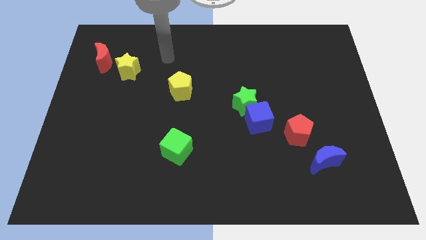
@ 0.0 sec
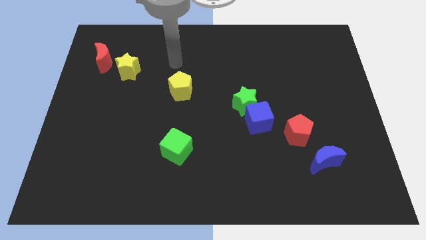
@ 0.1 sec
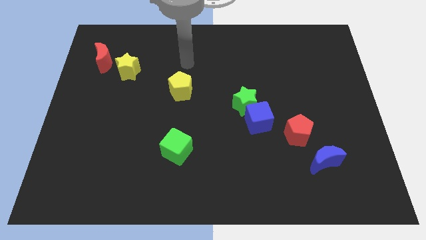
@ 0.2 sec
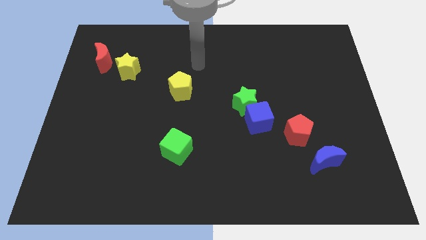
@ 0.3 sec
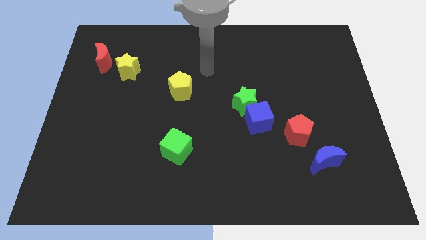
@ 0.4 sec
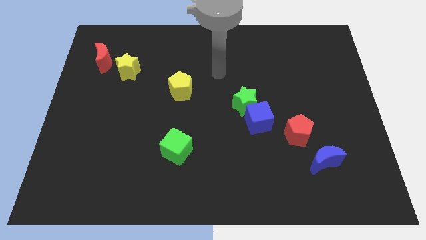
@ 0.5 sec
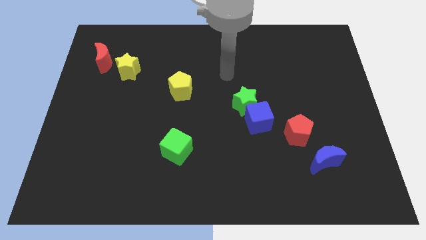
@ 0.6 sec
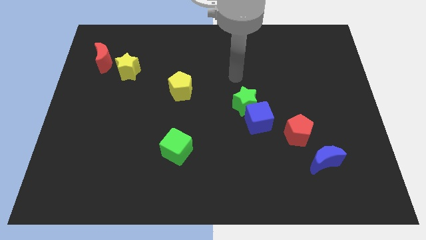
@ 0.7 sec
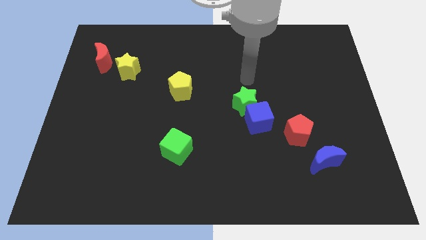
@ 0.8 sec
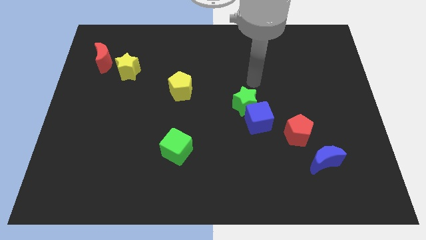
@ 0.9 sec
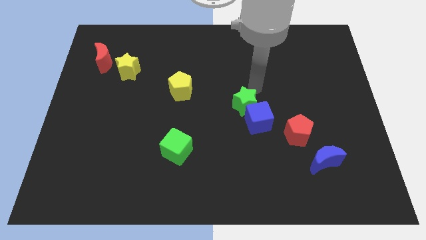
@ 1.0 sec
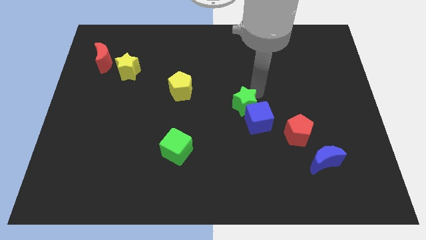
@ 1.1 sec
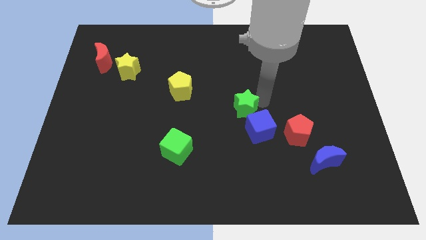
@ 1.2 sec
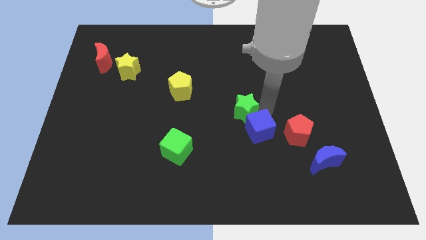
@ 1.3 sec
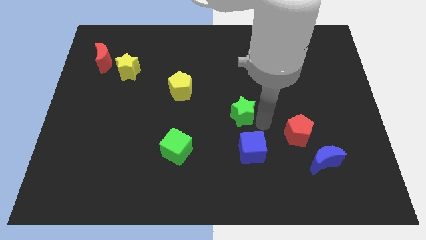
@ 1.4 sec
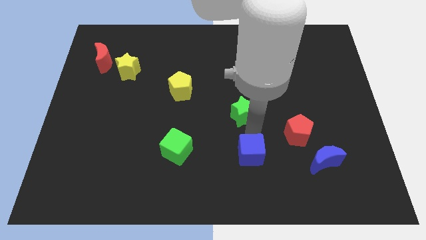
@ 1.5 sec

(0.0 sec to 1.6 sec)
move the green star away from the blue cube

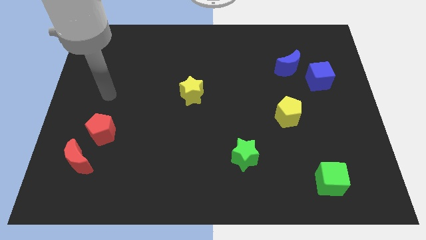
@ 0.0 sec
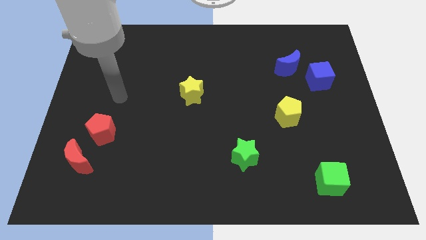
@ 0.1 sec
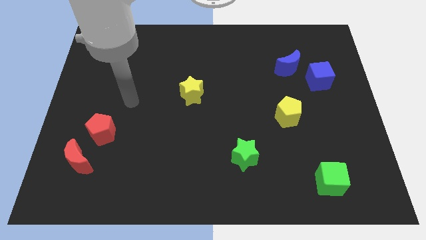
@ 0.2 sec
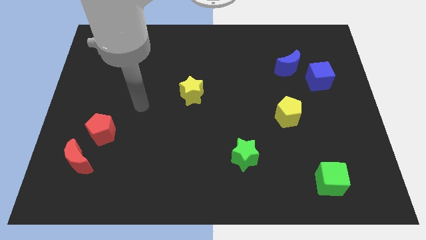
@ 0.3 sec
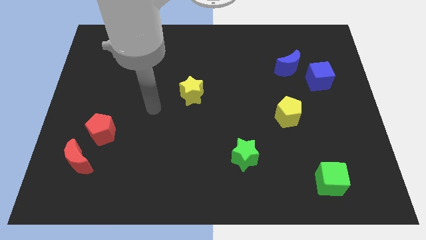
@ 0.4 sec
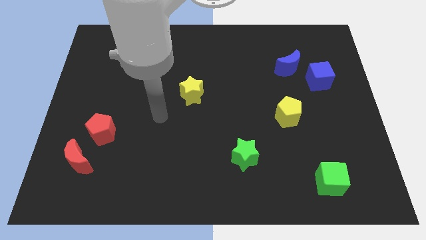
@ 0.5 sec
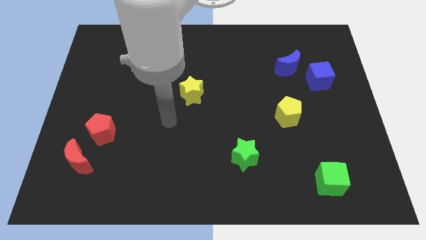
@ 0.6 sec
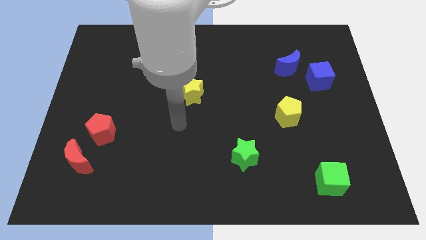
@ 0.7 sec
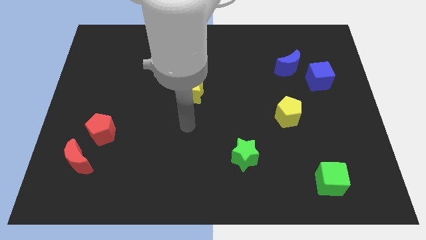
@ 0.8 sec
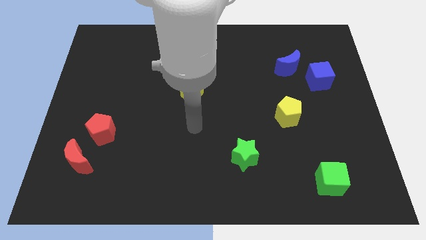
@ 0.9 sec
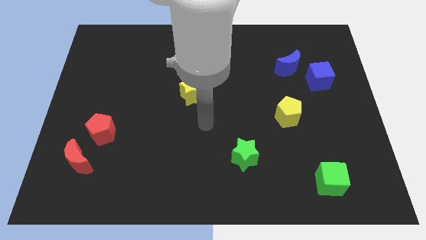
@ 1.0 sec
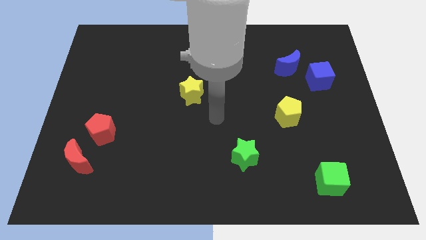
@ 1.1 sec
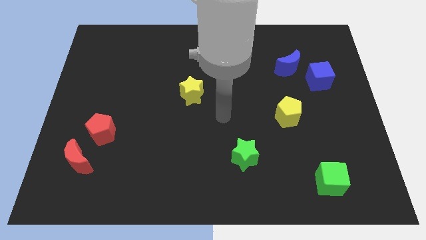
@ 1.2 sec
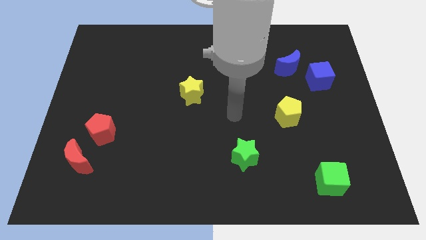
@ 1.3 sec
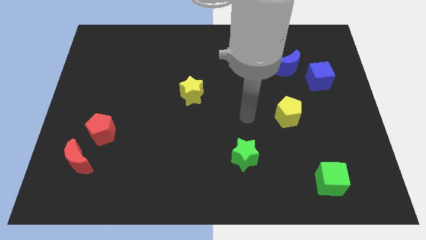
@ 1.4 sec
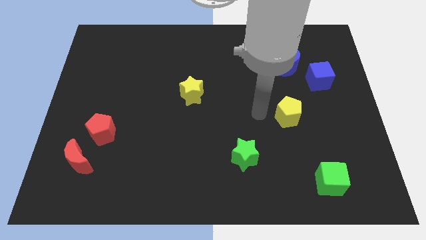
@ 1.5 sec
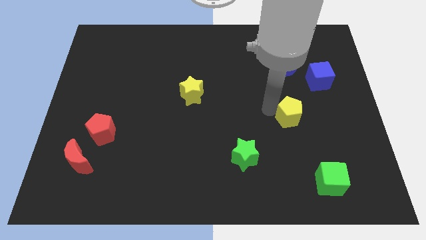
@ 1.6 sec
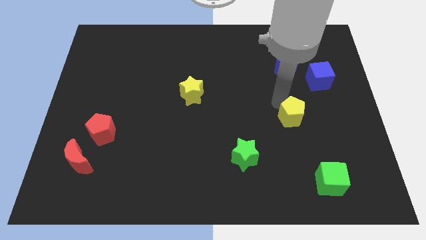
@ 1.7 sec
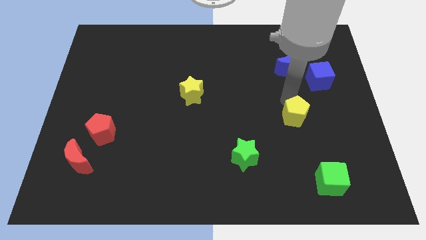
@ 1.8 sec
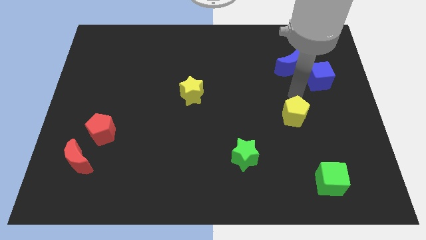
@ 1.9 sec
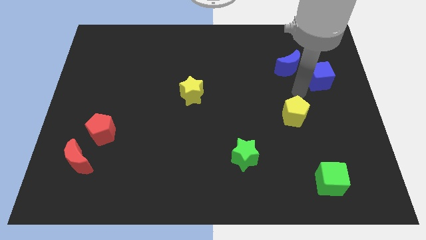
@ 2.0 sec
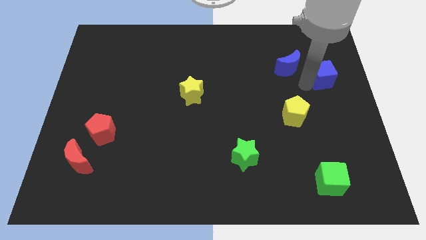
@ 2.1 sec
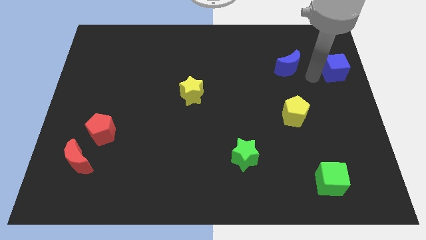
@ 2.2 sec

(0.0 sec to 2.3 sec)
move the blue moon away from the blue cube

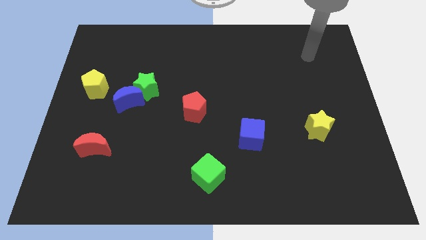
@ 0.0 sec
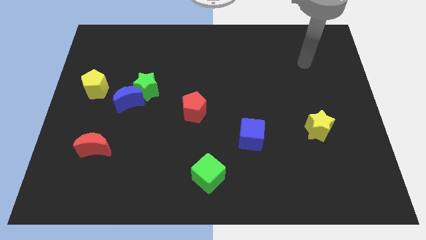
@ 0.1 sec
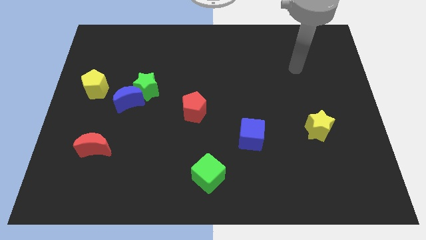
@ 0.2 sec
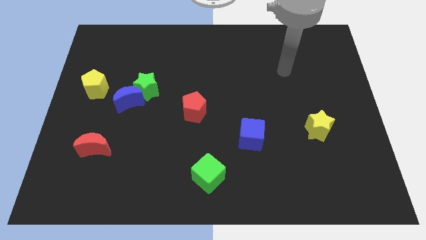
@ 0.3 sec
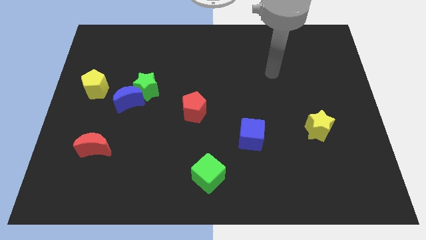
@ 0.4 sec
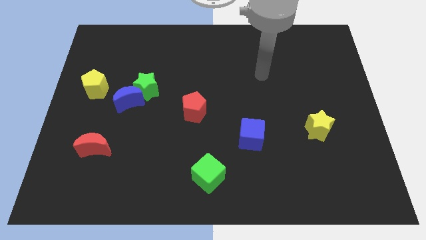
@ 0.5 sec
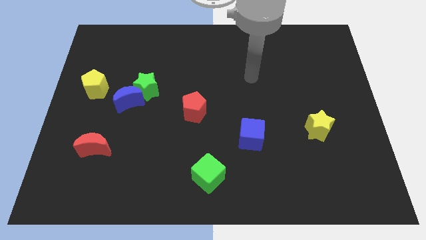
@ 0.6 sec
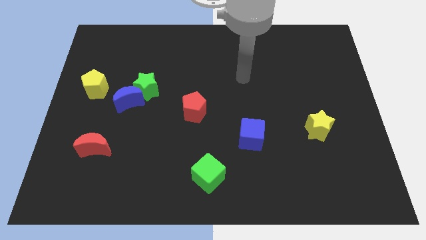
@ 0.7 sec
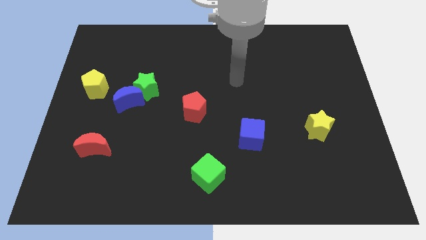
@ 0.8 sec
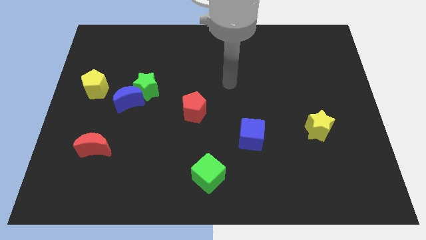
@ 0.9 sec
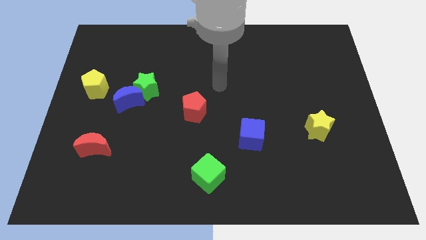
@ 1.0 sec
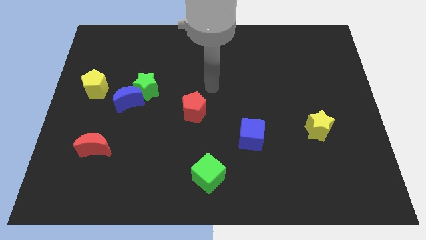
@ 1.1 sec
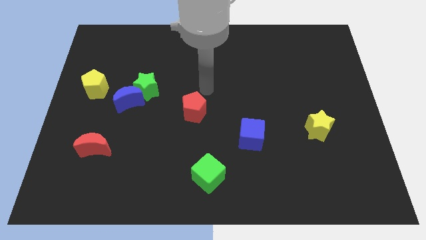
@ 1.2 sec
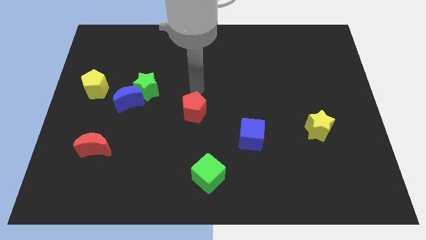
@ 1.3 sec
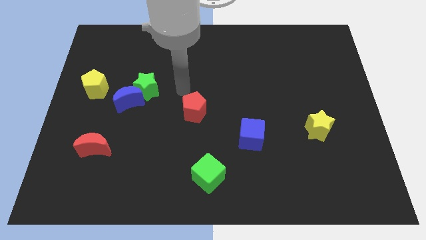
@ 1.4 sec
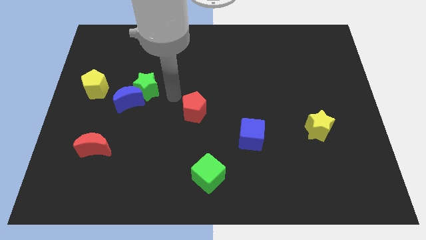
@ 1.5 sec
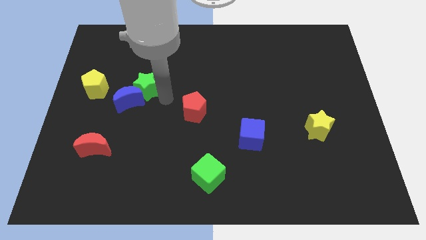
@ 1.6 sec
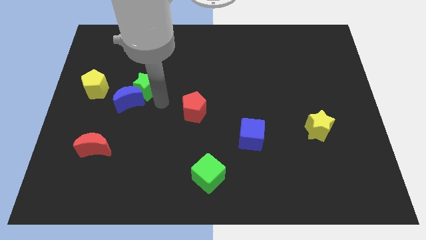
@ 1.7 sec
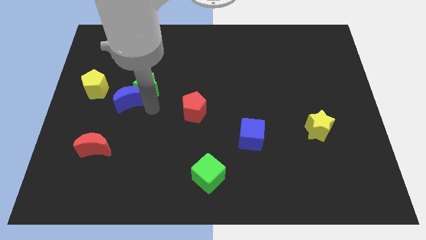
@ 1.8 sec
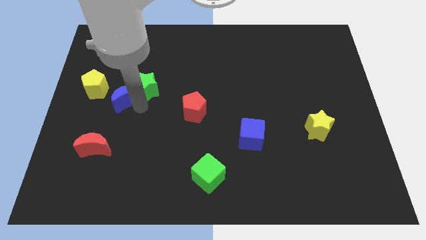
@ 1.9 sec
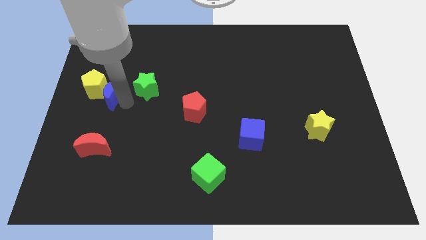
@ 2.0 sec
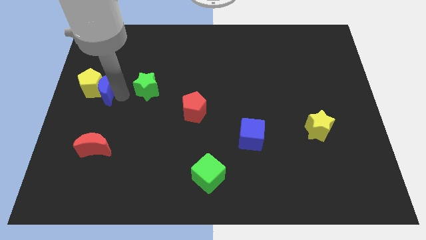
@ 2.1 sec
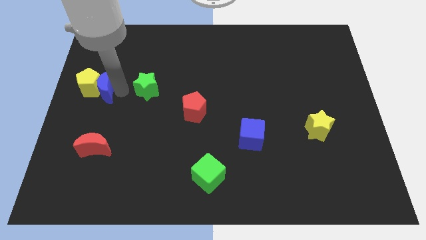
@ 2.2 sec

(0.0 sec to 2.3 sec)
move the green star away from the blue moon

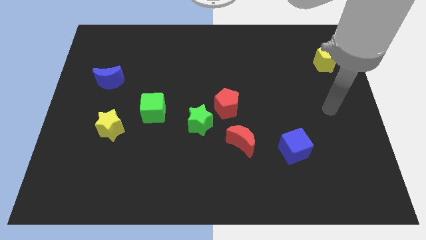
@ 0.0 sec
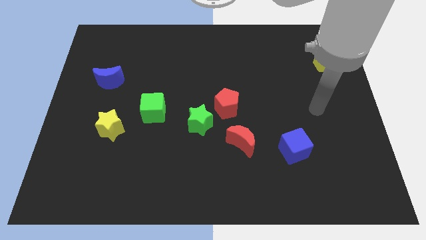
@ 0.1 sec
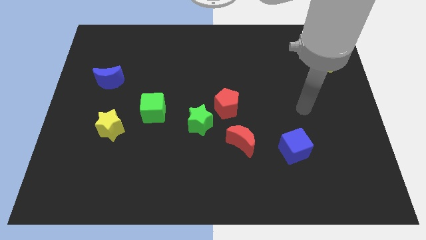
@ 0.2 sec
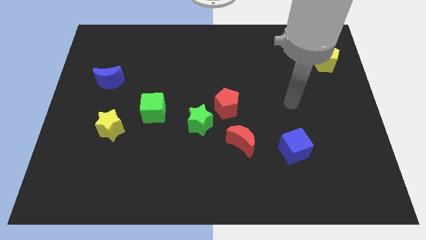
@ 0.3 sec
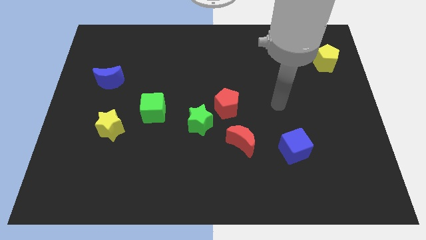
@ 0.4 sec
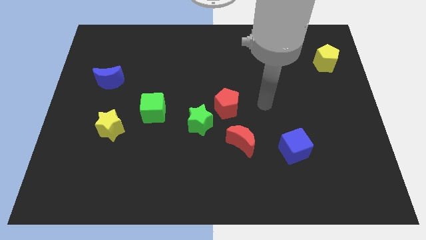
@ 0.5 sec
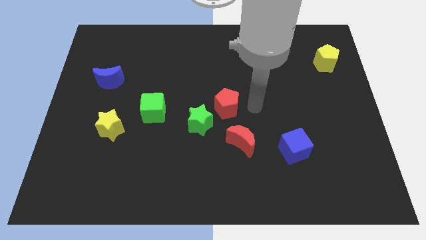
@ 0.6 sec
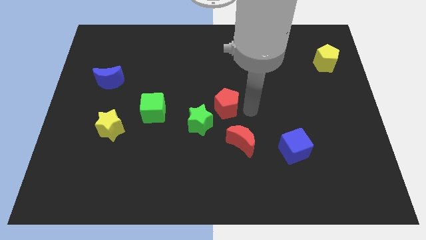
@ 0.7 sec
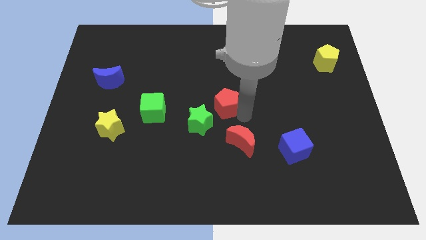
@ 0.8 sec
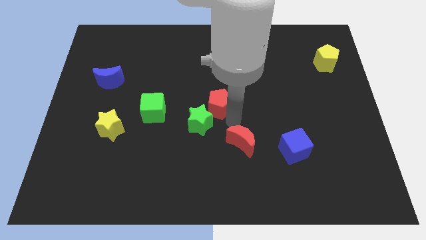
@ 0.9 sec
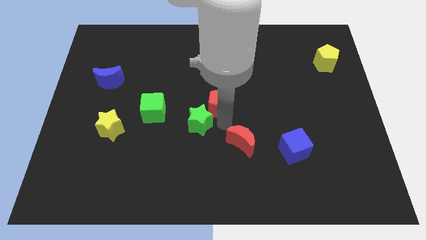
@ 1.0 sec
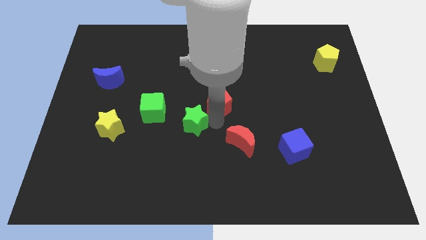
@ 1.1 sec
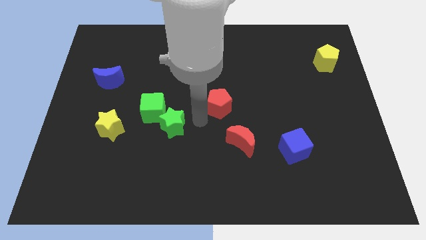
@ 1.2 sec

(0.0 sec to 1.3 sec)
move the red pentagon away from the green star

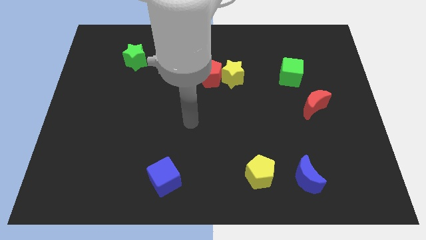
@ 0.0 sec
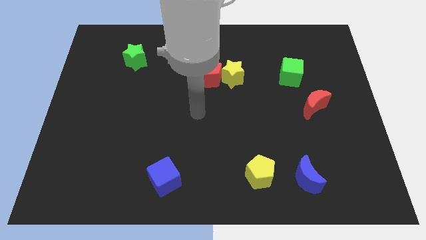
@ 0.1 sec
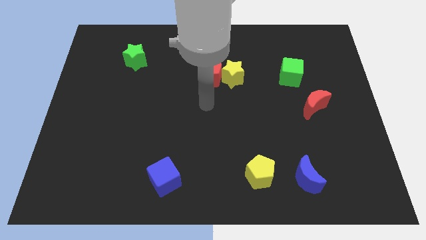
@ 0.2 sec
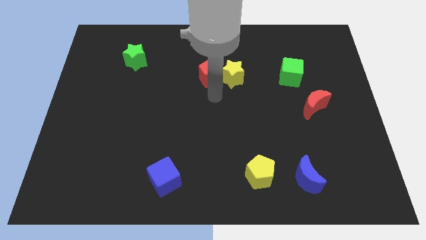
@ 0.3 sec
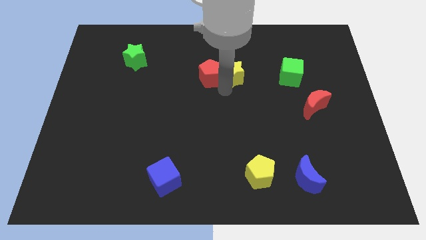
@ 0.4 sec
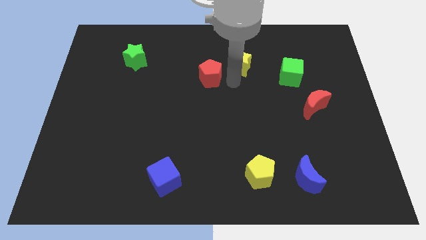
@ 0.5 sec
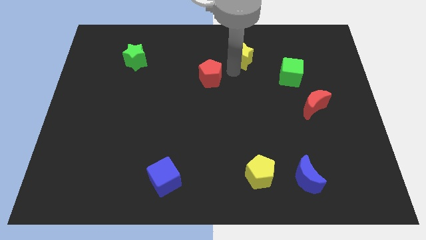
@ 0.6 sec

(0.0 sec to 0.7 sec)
separate the red pentagon from the yellow star

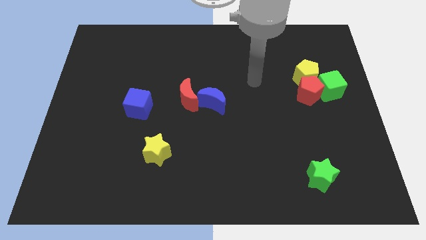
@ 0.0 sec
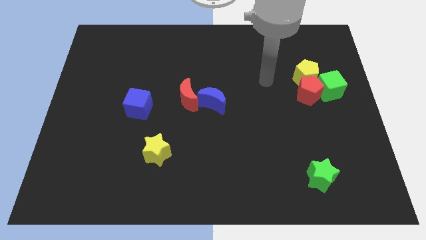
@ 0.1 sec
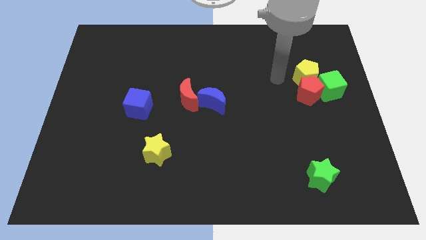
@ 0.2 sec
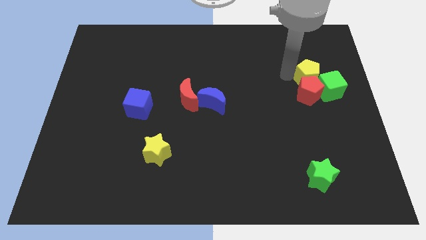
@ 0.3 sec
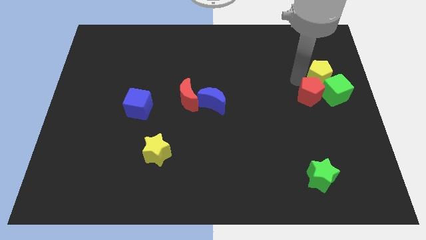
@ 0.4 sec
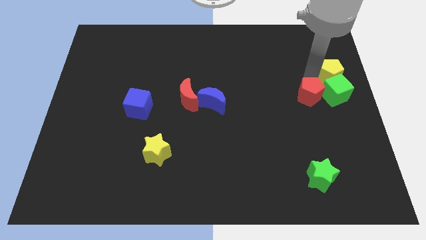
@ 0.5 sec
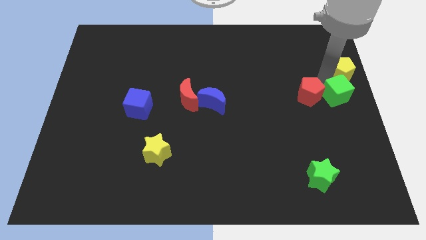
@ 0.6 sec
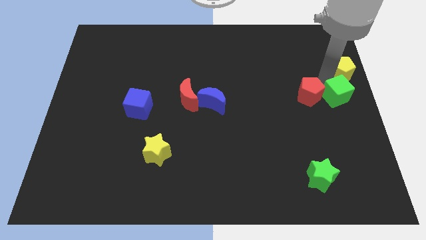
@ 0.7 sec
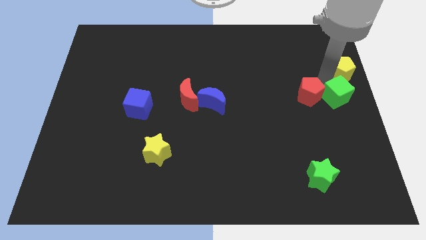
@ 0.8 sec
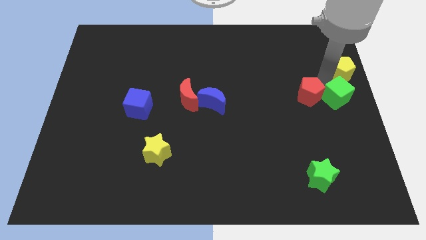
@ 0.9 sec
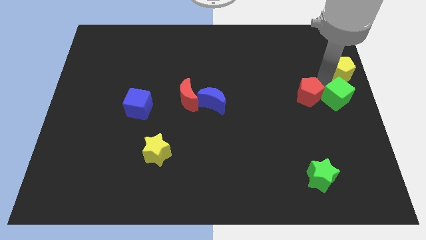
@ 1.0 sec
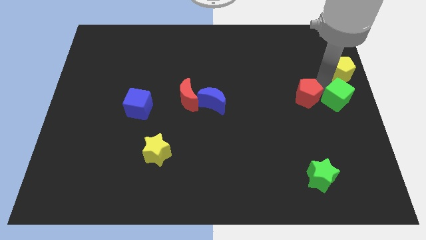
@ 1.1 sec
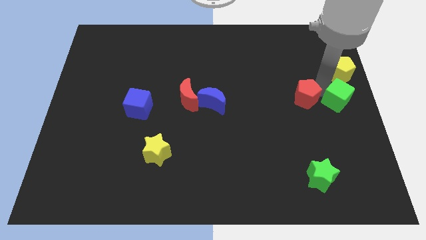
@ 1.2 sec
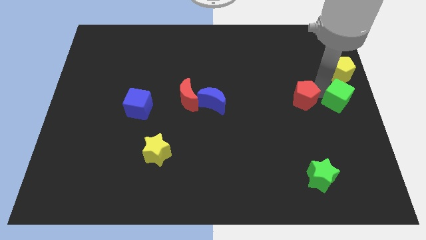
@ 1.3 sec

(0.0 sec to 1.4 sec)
pull the red pentagon apart from the yellow pentagon and green cube
